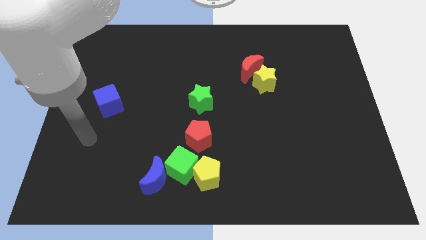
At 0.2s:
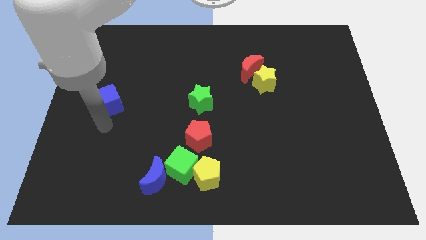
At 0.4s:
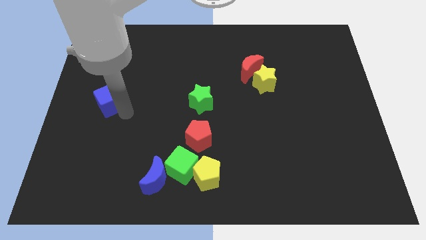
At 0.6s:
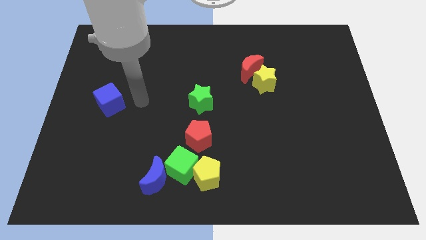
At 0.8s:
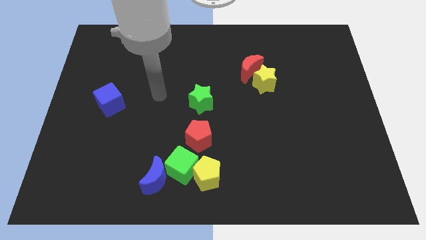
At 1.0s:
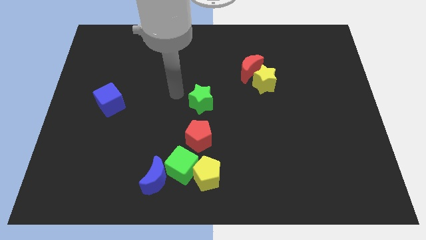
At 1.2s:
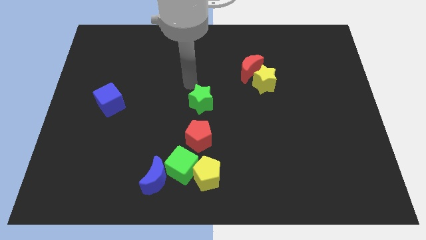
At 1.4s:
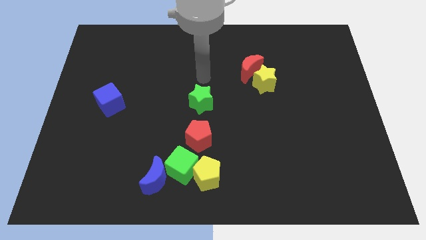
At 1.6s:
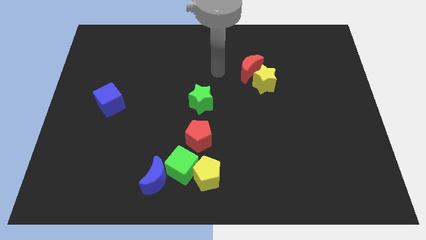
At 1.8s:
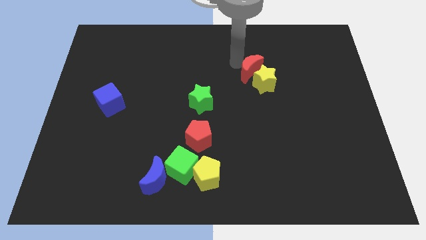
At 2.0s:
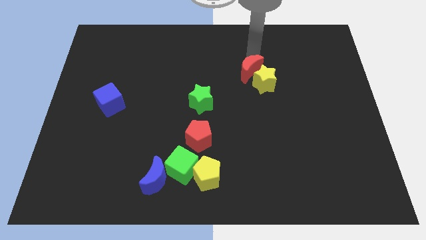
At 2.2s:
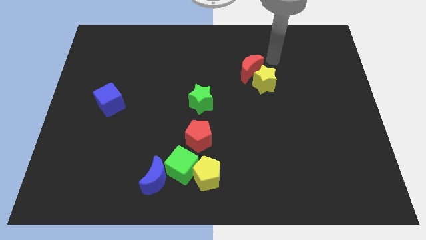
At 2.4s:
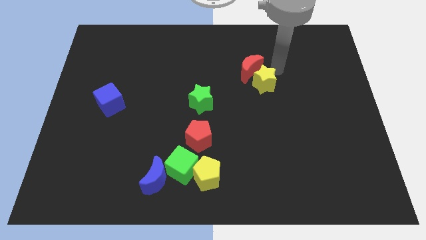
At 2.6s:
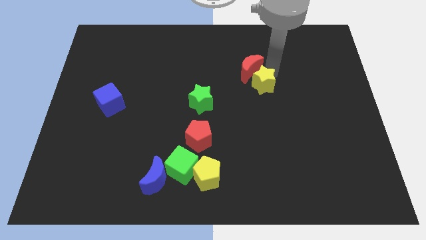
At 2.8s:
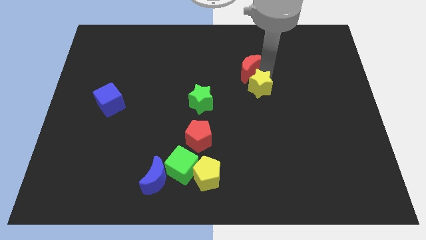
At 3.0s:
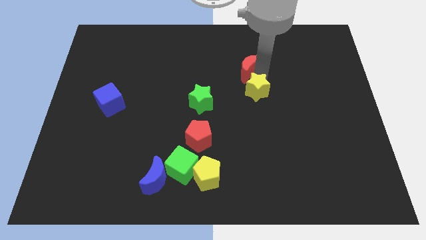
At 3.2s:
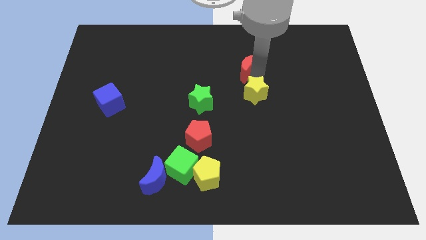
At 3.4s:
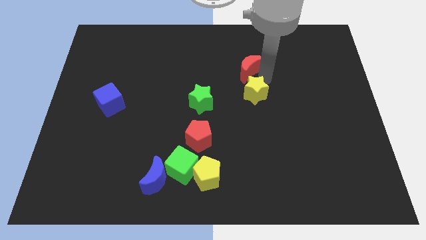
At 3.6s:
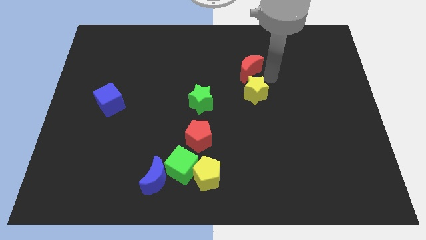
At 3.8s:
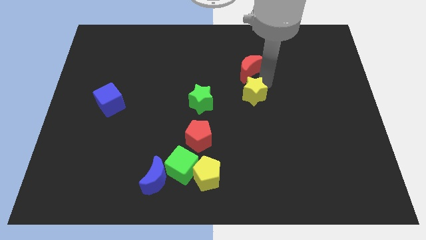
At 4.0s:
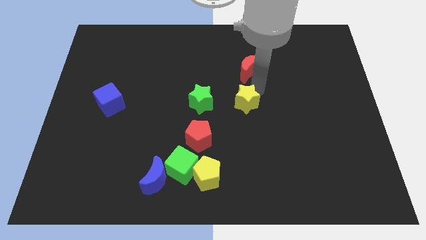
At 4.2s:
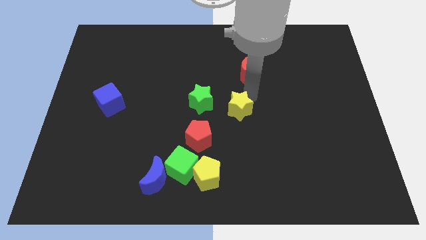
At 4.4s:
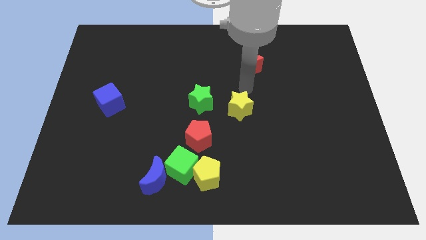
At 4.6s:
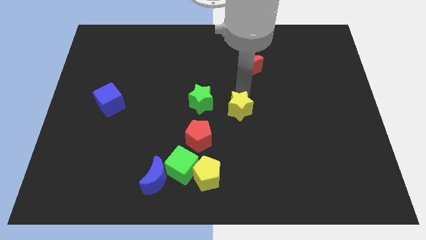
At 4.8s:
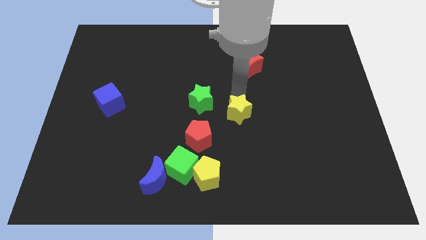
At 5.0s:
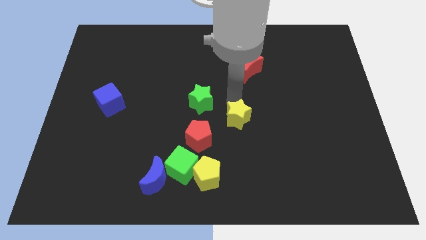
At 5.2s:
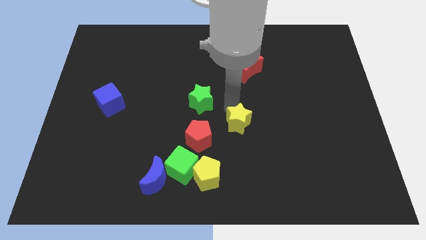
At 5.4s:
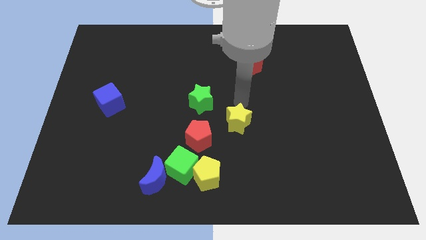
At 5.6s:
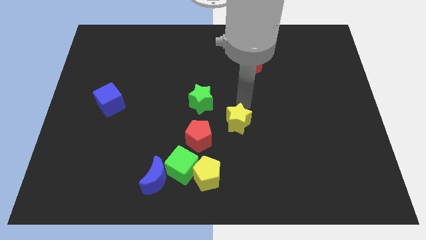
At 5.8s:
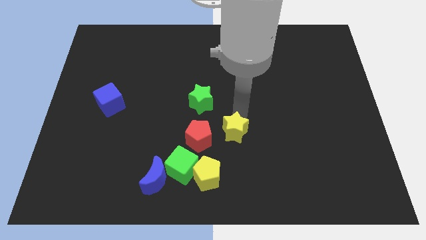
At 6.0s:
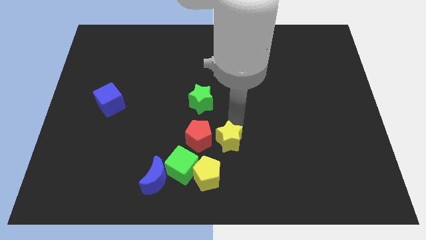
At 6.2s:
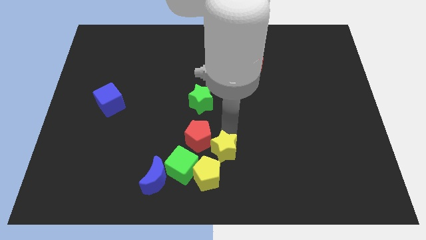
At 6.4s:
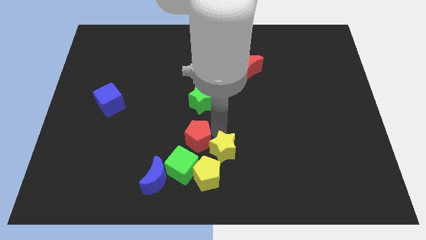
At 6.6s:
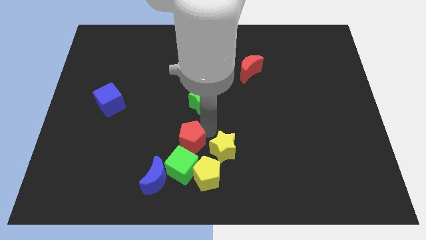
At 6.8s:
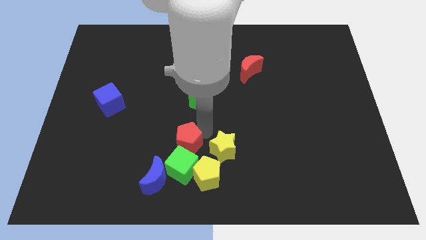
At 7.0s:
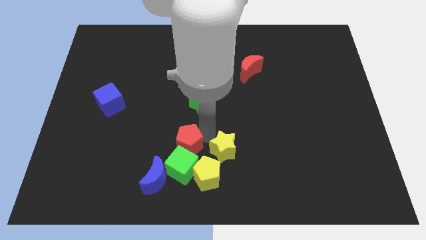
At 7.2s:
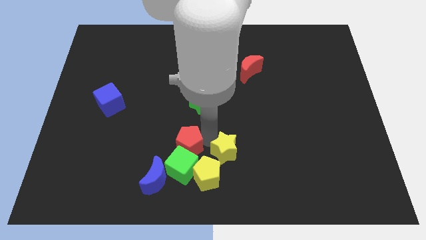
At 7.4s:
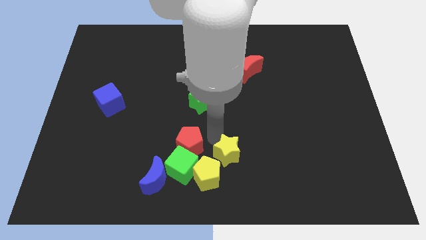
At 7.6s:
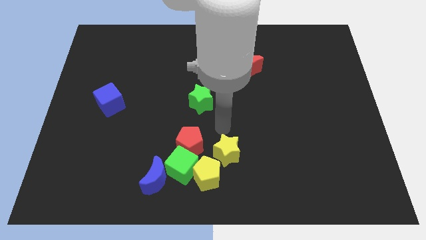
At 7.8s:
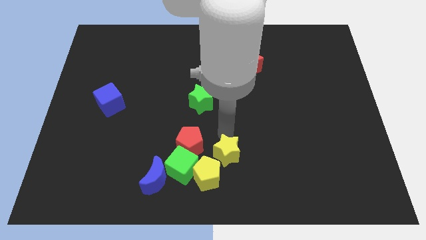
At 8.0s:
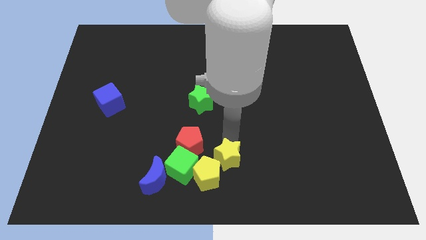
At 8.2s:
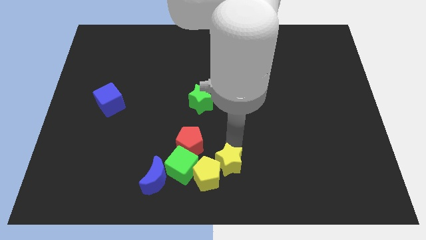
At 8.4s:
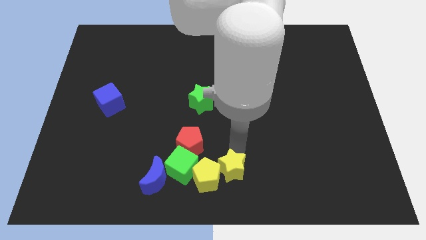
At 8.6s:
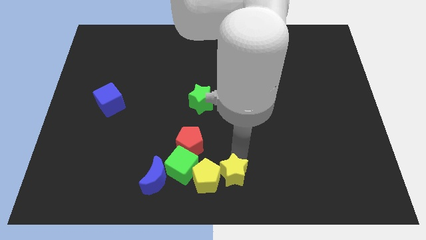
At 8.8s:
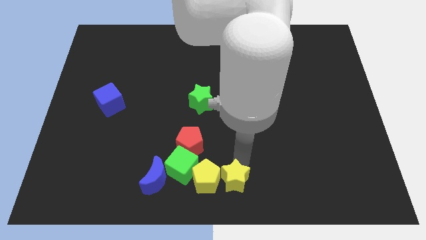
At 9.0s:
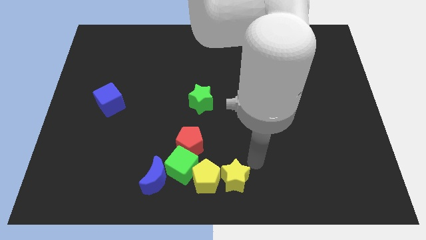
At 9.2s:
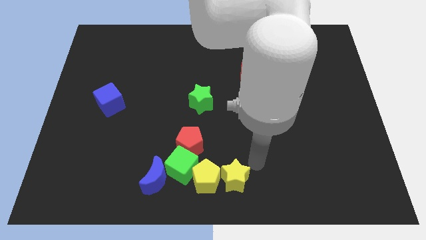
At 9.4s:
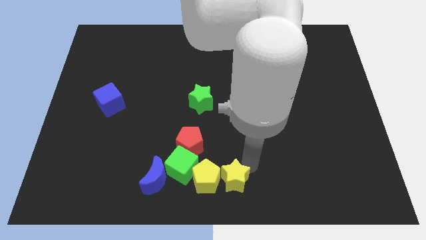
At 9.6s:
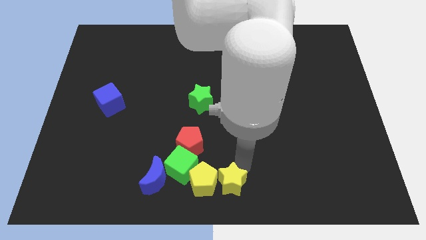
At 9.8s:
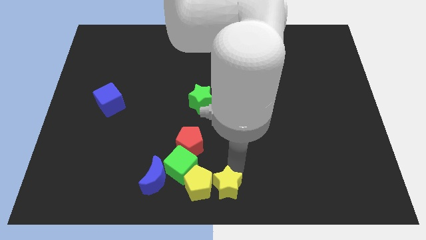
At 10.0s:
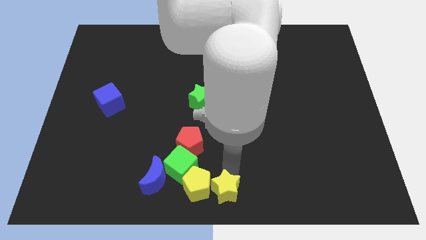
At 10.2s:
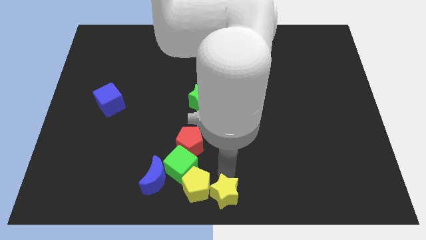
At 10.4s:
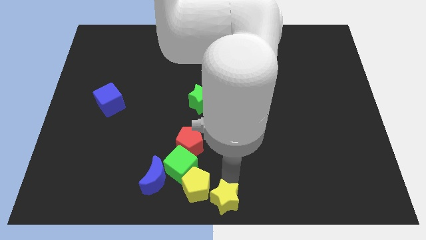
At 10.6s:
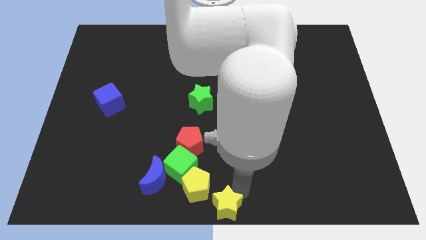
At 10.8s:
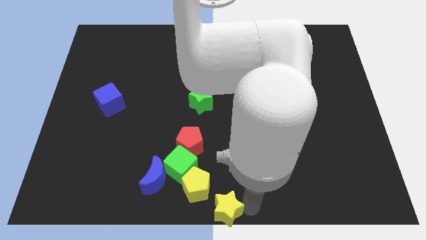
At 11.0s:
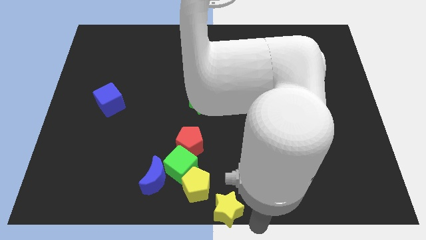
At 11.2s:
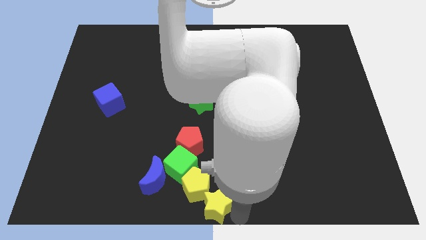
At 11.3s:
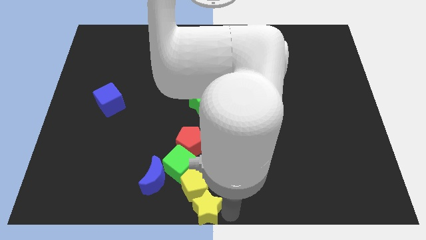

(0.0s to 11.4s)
move the yellow star to the bottom of the red pentagon

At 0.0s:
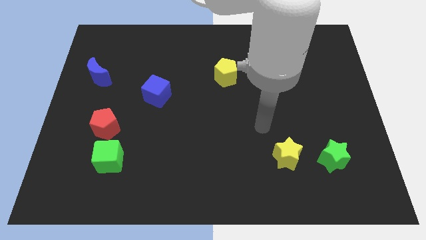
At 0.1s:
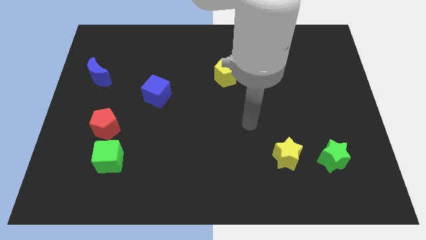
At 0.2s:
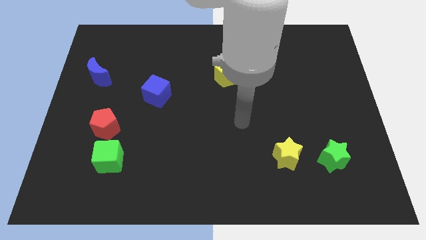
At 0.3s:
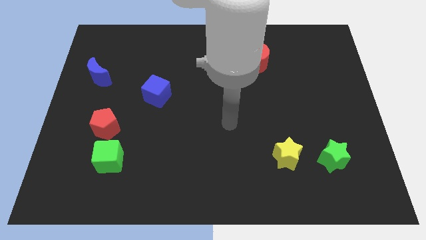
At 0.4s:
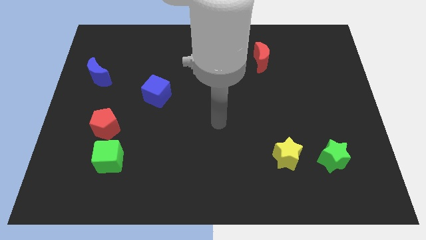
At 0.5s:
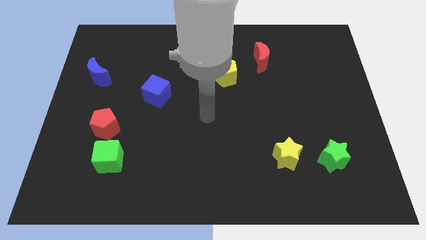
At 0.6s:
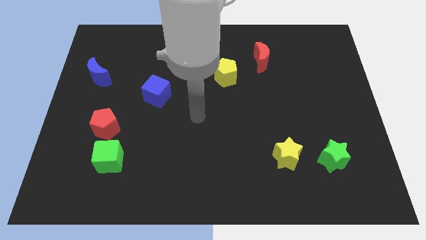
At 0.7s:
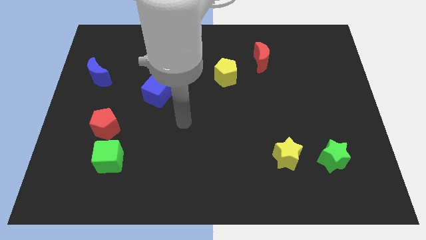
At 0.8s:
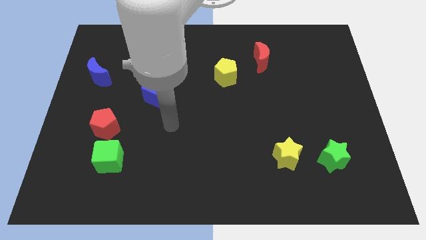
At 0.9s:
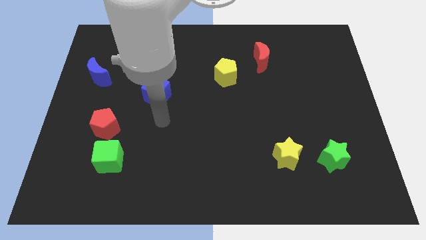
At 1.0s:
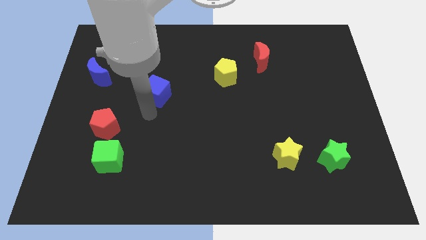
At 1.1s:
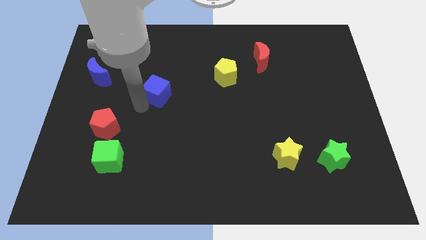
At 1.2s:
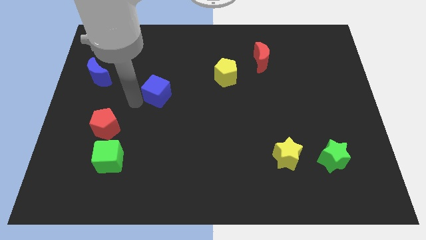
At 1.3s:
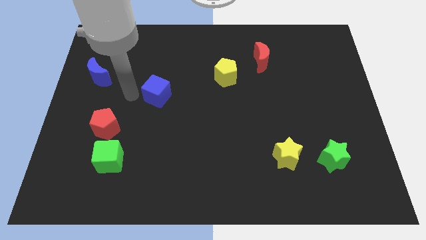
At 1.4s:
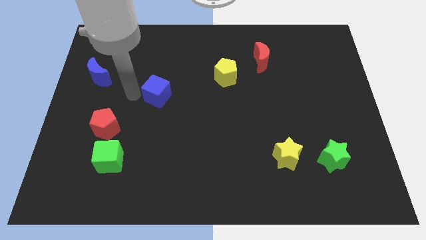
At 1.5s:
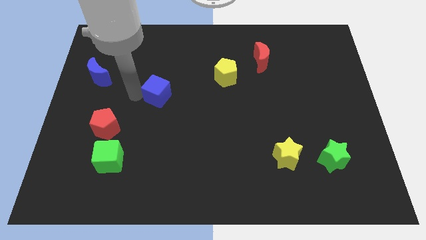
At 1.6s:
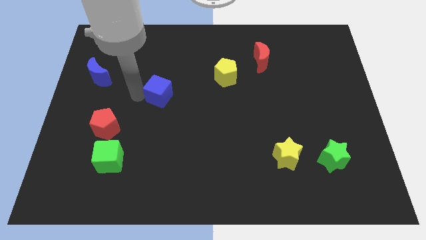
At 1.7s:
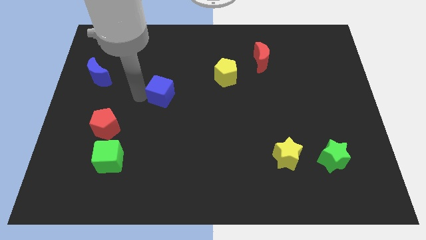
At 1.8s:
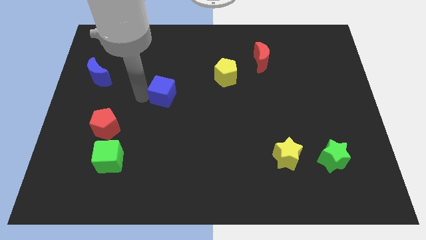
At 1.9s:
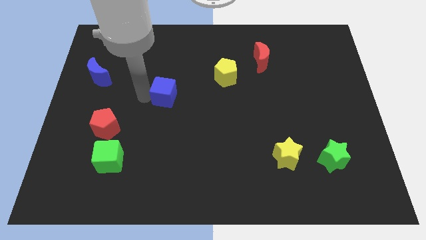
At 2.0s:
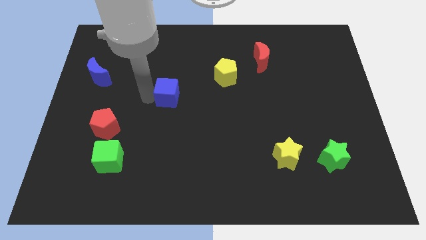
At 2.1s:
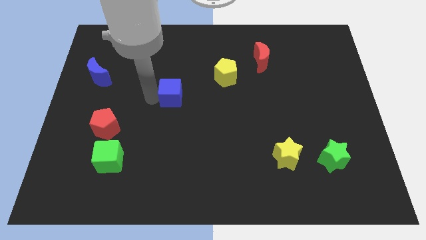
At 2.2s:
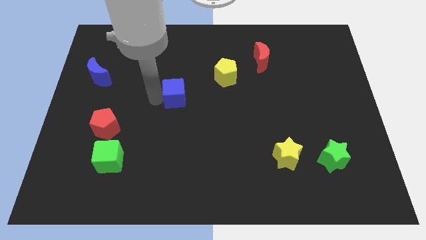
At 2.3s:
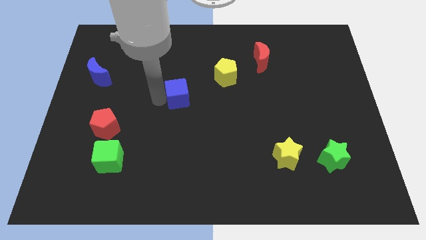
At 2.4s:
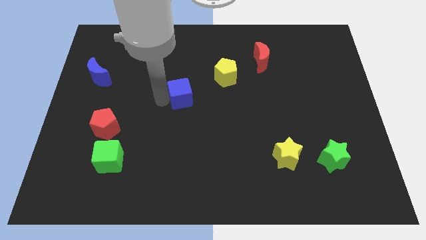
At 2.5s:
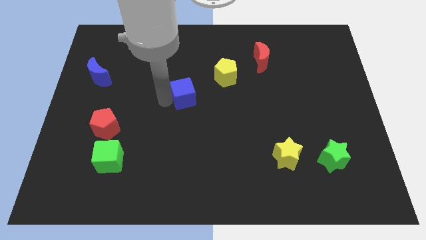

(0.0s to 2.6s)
push the blue cube diagonally down and to the left of the yellow pentagon
